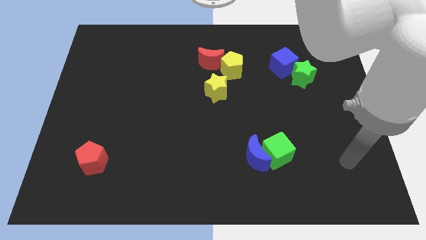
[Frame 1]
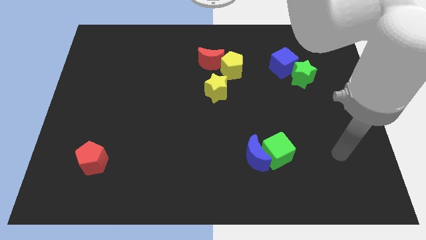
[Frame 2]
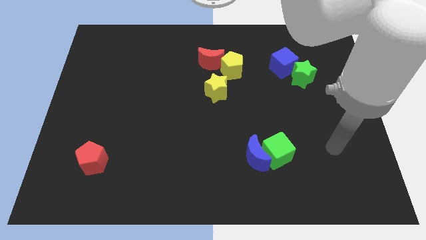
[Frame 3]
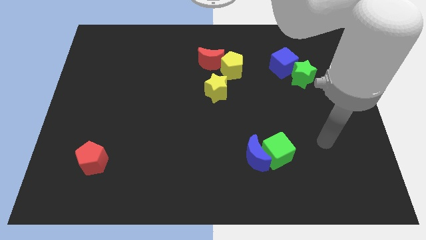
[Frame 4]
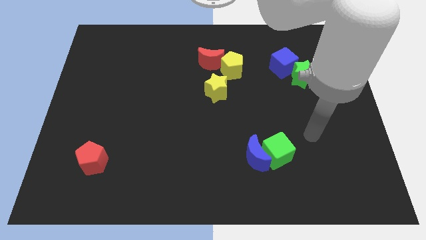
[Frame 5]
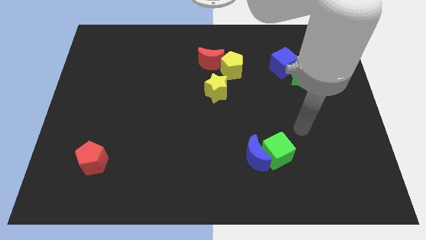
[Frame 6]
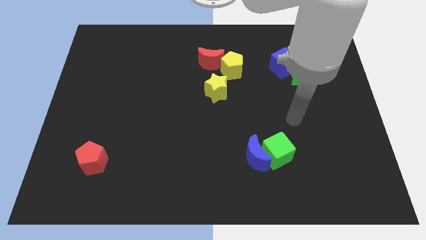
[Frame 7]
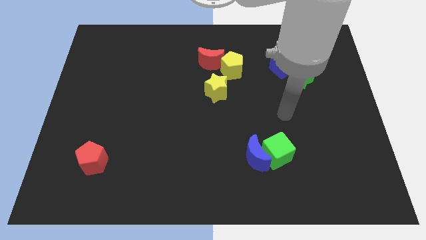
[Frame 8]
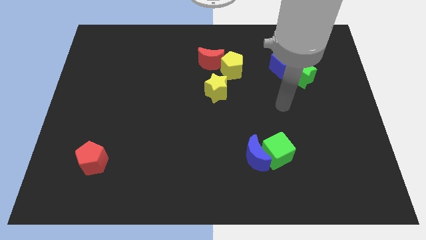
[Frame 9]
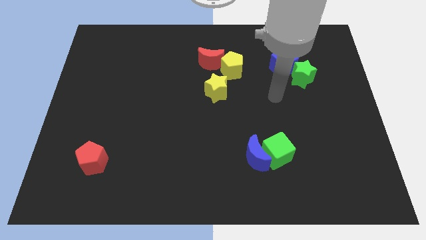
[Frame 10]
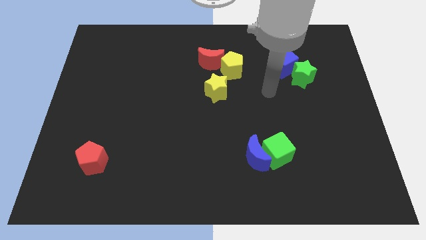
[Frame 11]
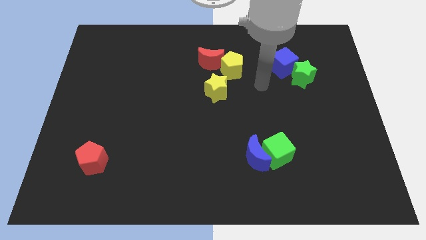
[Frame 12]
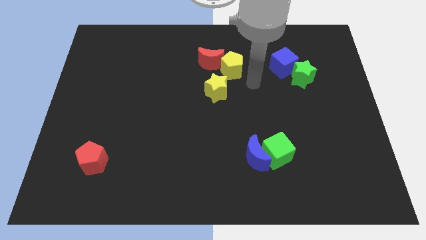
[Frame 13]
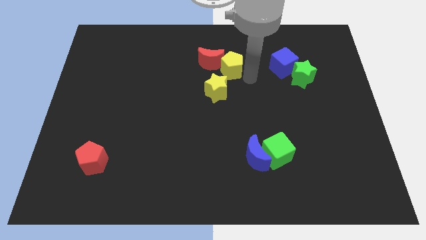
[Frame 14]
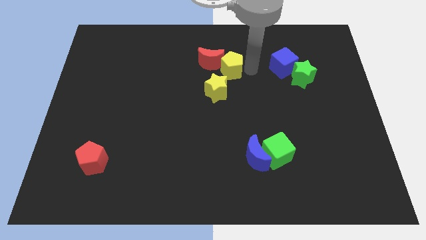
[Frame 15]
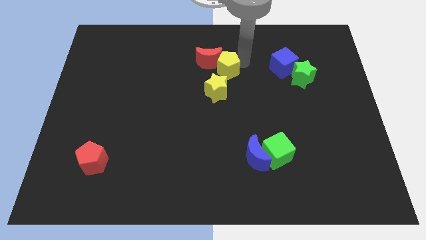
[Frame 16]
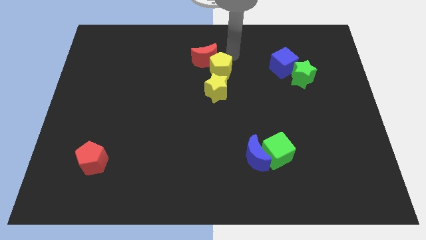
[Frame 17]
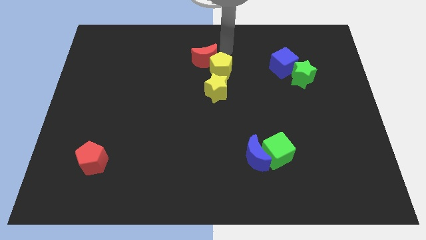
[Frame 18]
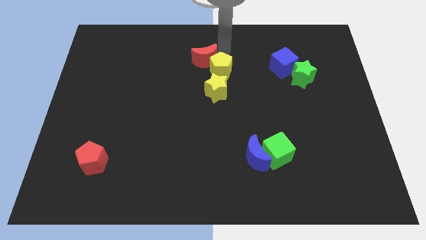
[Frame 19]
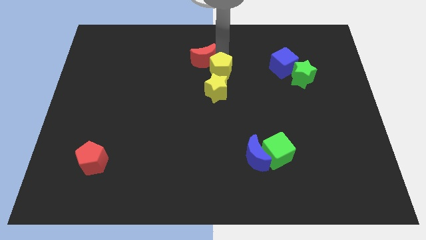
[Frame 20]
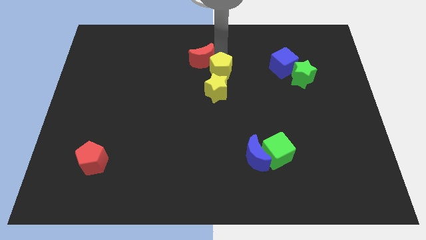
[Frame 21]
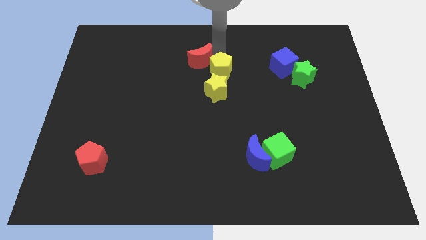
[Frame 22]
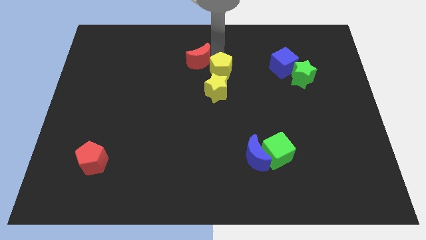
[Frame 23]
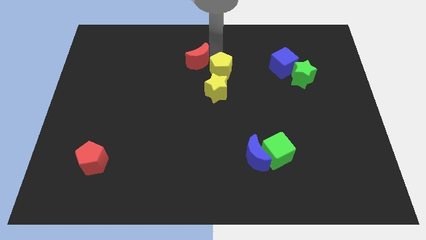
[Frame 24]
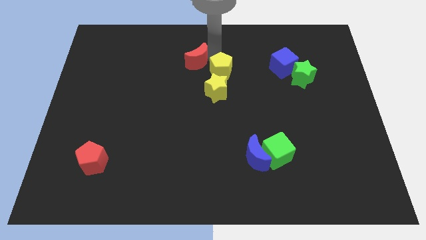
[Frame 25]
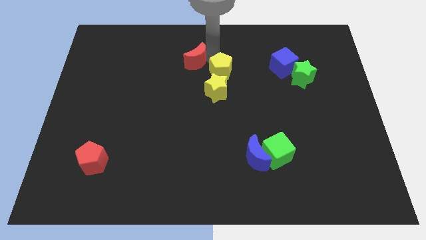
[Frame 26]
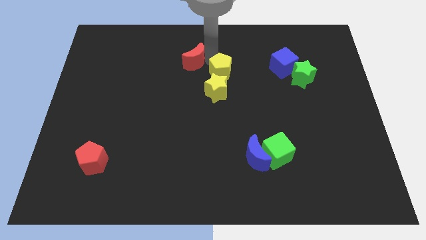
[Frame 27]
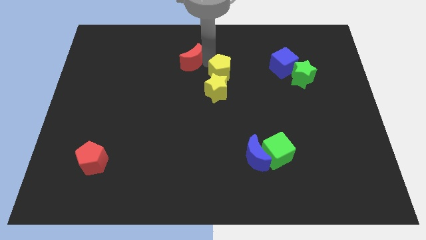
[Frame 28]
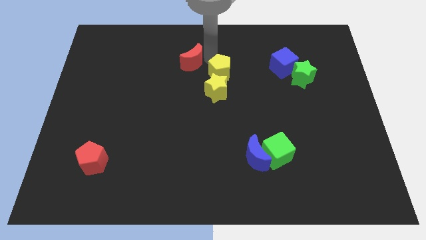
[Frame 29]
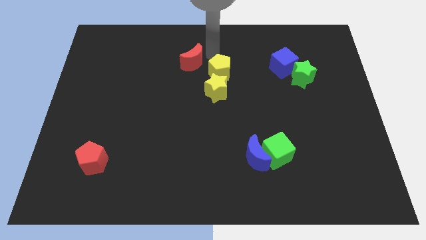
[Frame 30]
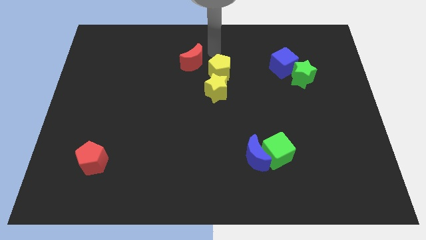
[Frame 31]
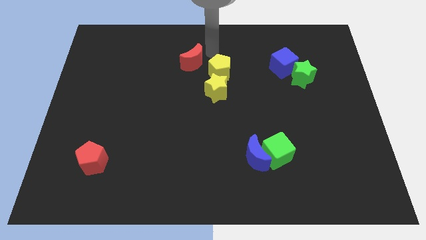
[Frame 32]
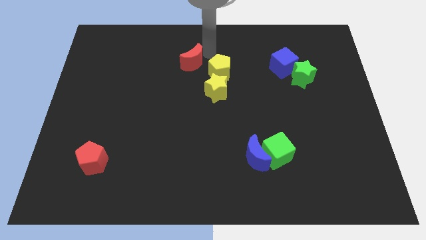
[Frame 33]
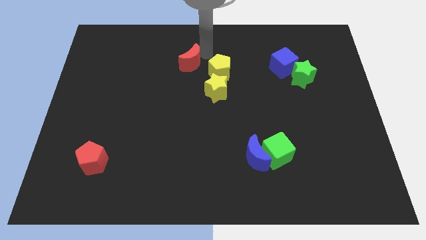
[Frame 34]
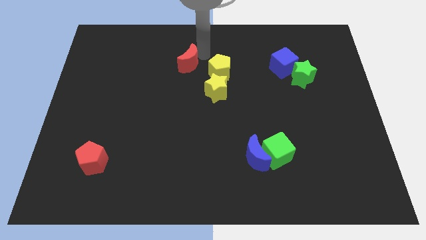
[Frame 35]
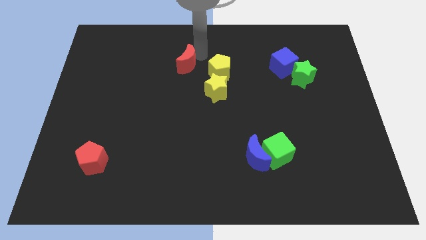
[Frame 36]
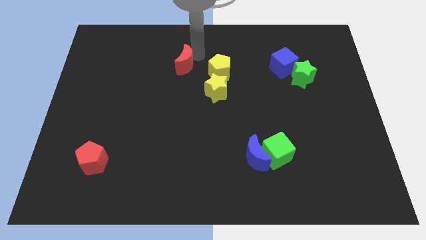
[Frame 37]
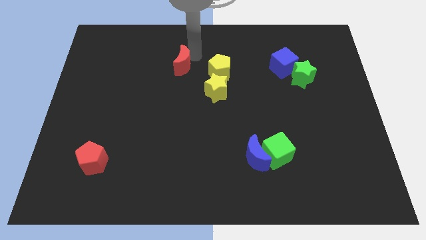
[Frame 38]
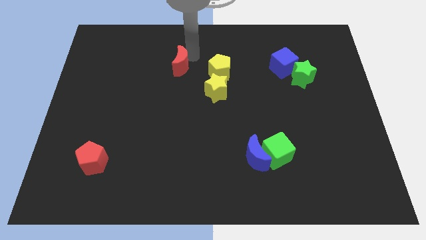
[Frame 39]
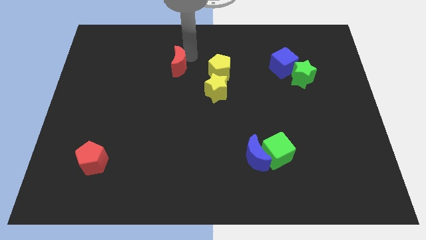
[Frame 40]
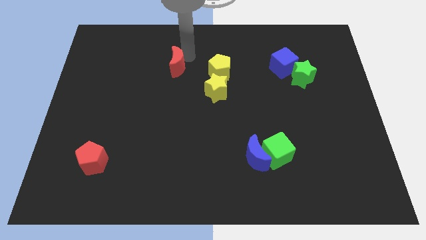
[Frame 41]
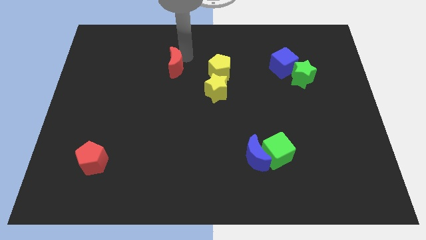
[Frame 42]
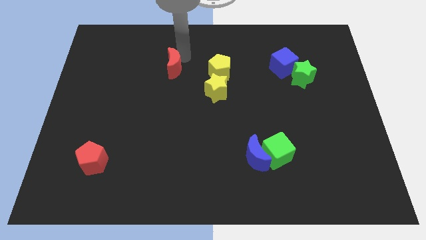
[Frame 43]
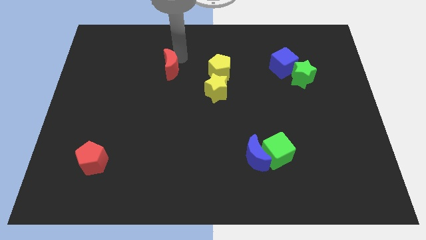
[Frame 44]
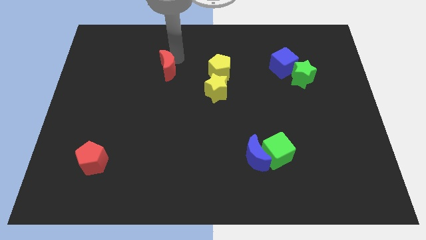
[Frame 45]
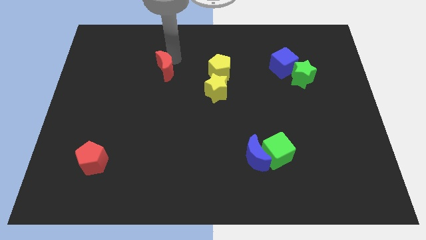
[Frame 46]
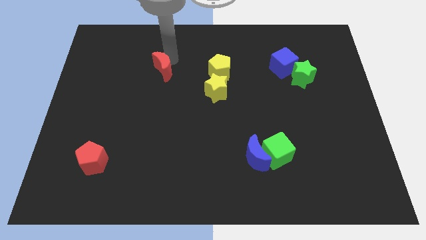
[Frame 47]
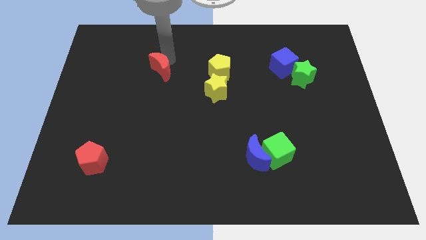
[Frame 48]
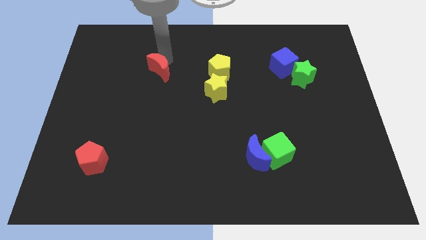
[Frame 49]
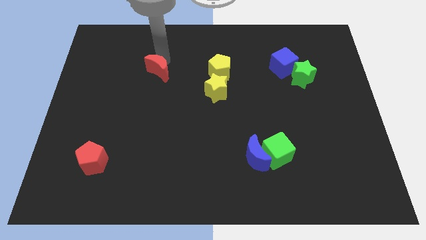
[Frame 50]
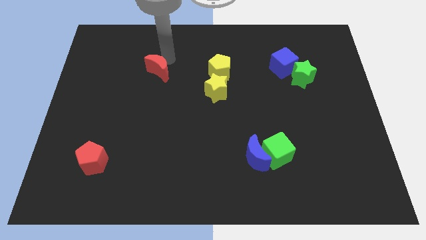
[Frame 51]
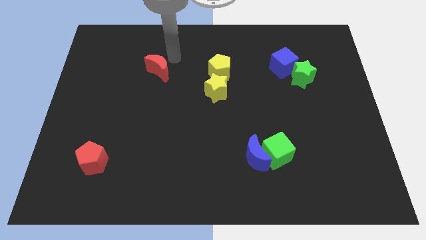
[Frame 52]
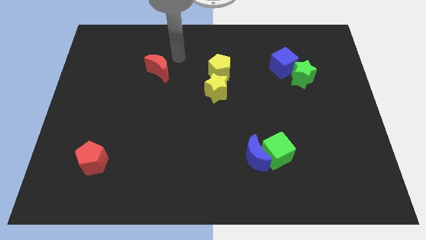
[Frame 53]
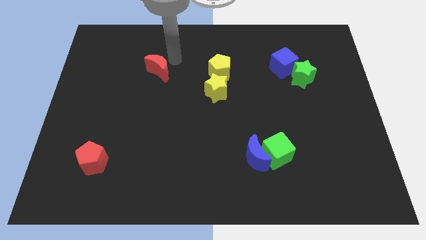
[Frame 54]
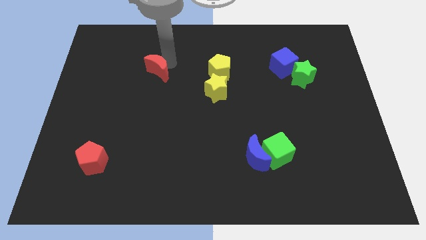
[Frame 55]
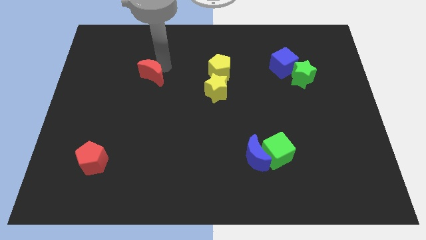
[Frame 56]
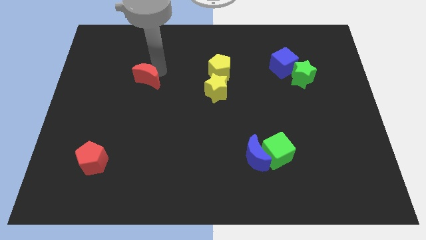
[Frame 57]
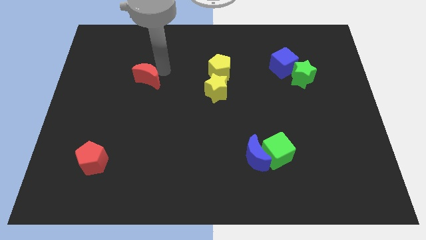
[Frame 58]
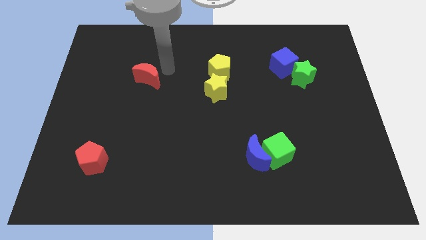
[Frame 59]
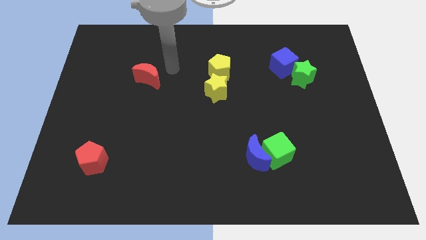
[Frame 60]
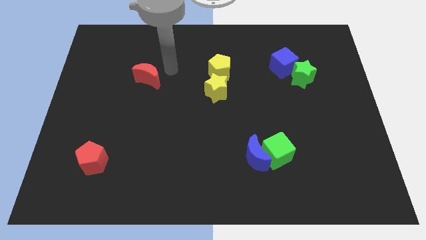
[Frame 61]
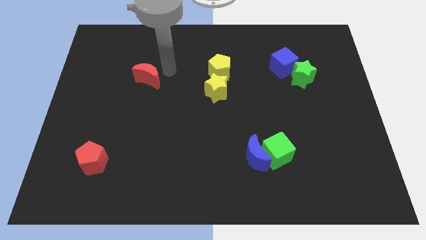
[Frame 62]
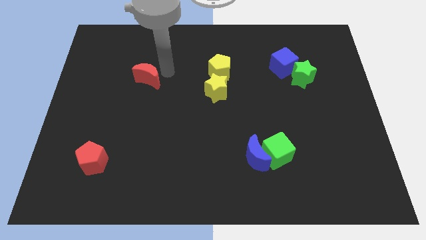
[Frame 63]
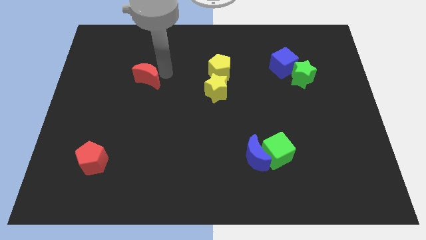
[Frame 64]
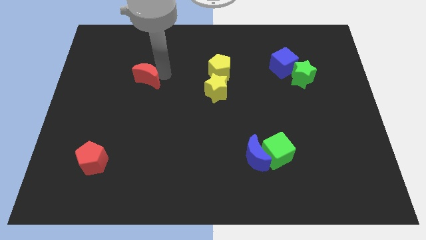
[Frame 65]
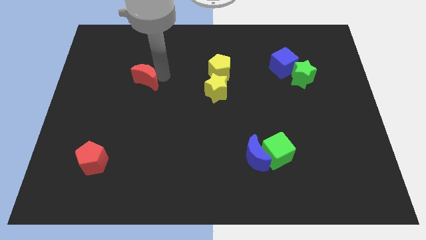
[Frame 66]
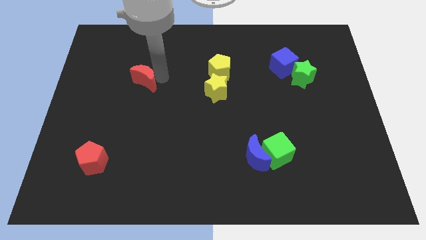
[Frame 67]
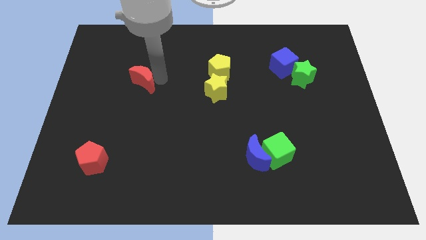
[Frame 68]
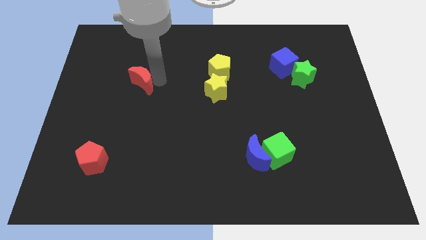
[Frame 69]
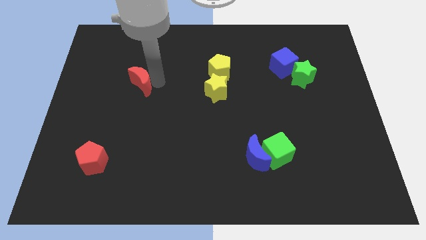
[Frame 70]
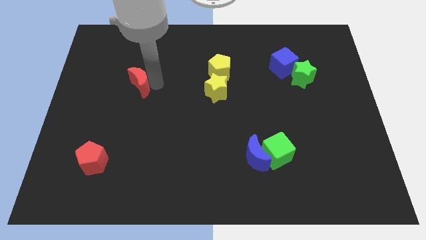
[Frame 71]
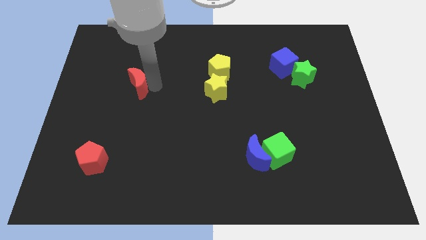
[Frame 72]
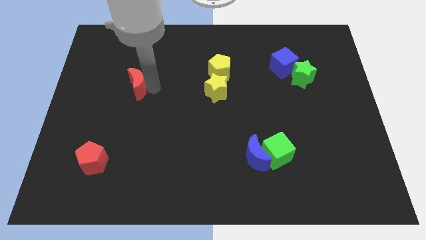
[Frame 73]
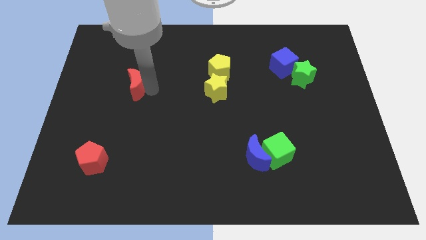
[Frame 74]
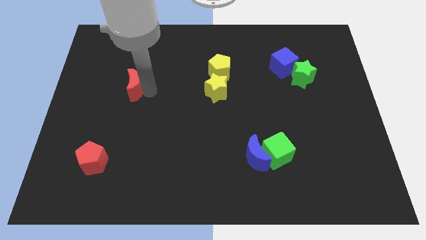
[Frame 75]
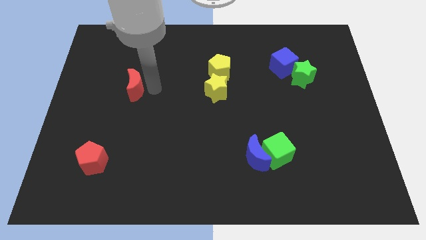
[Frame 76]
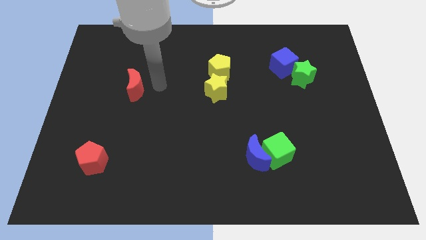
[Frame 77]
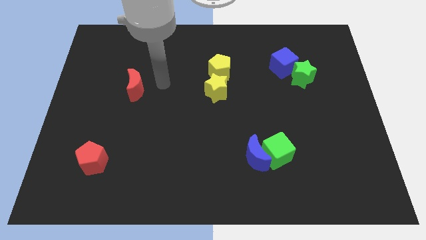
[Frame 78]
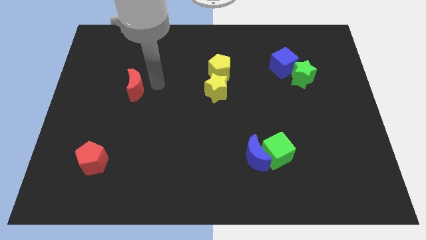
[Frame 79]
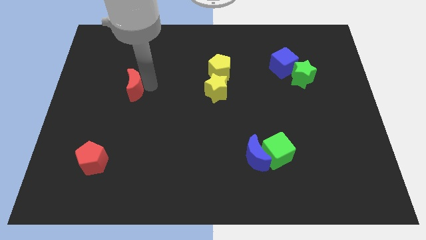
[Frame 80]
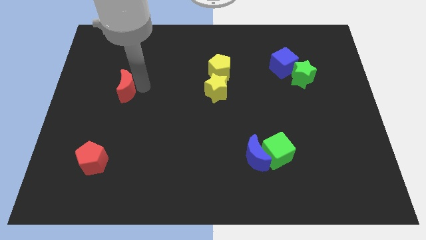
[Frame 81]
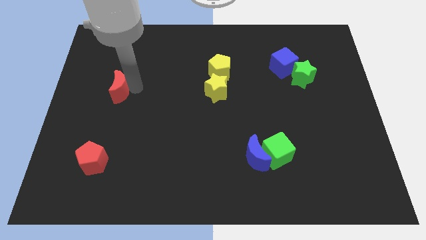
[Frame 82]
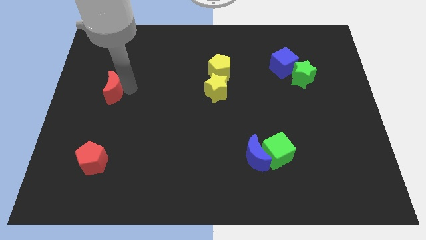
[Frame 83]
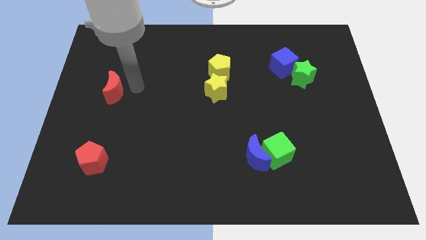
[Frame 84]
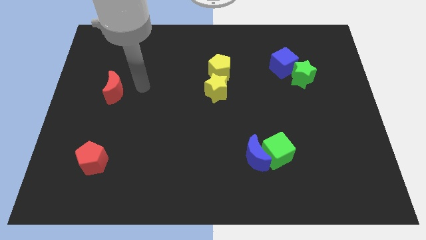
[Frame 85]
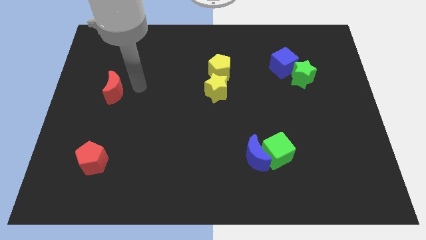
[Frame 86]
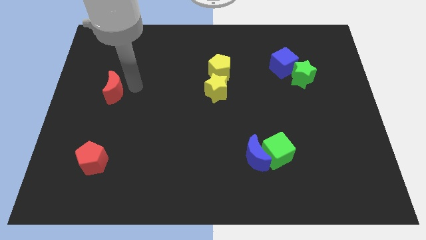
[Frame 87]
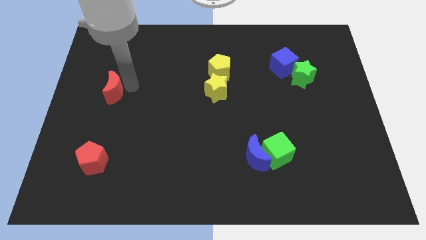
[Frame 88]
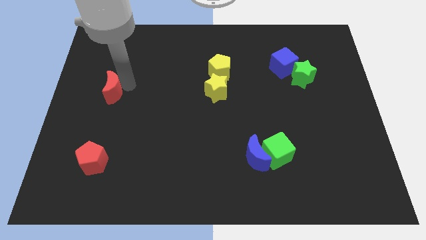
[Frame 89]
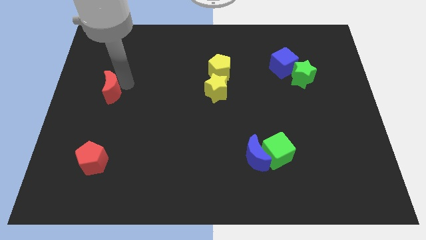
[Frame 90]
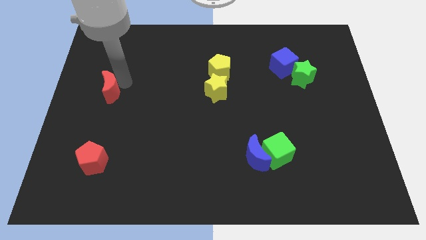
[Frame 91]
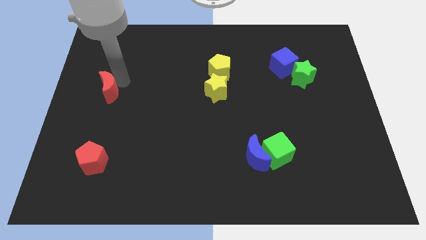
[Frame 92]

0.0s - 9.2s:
put the red moon to the center left
